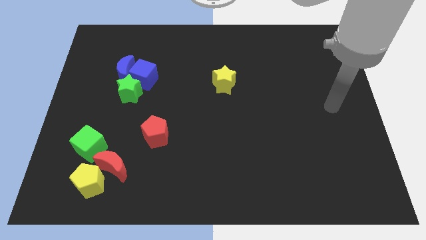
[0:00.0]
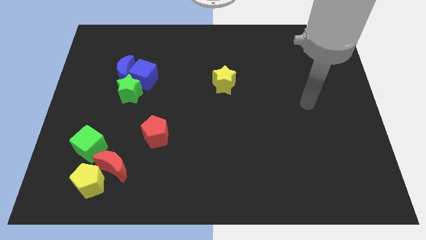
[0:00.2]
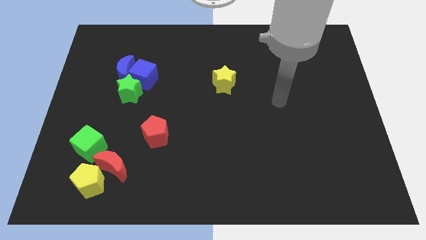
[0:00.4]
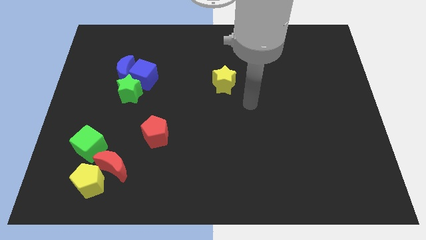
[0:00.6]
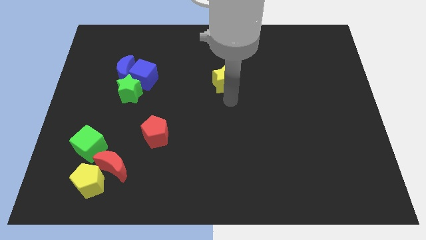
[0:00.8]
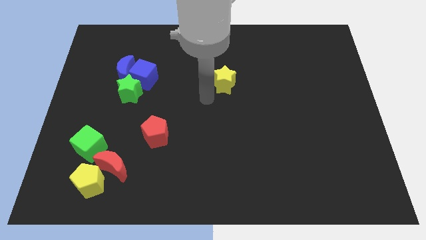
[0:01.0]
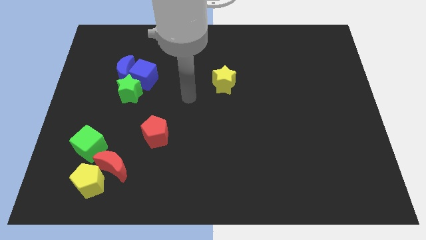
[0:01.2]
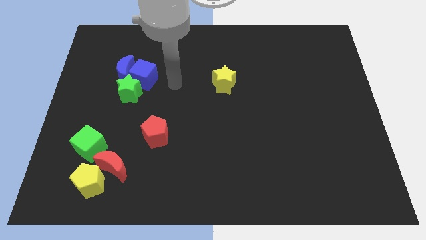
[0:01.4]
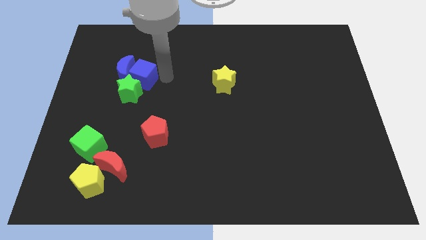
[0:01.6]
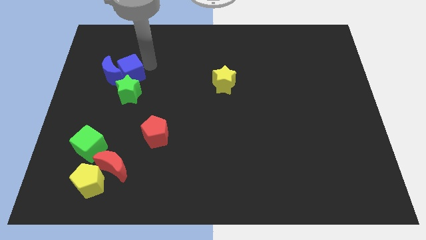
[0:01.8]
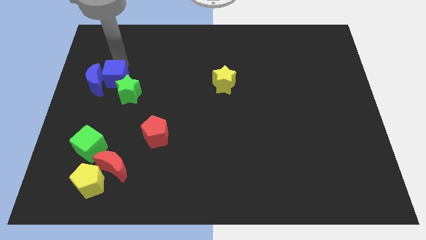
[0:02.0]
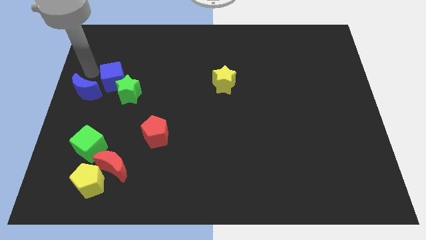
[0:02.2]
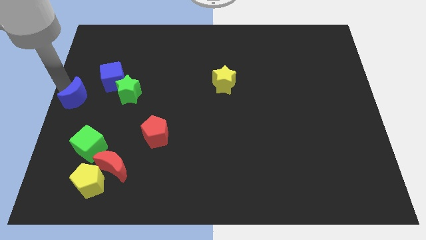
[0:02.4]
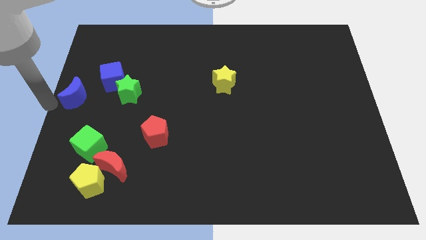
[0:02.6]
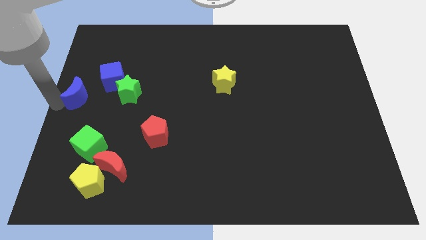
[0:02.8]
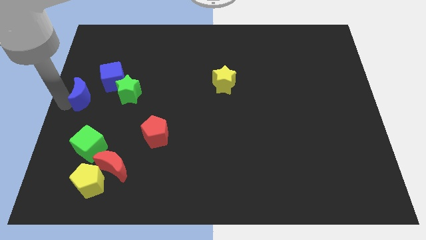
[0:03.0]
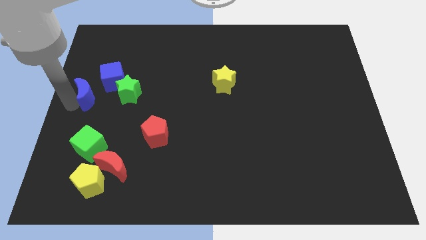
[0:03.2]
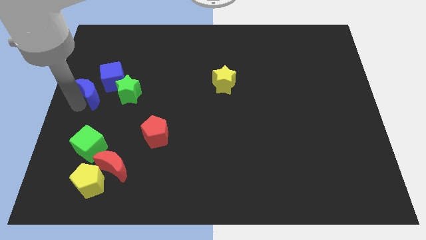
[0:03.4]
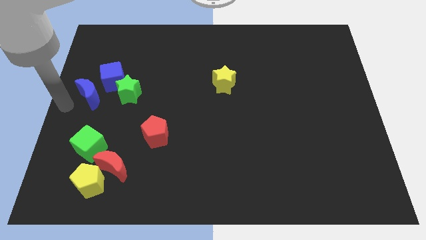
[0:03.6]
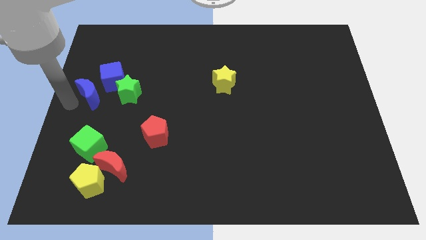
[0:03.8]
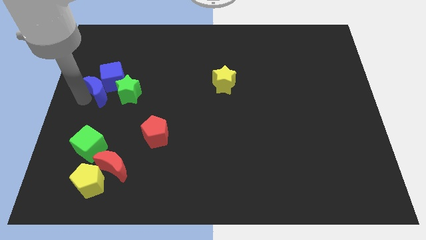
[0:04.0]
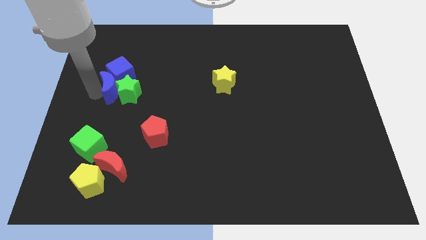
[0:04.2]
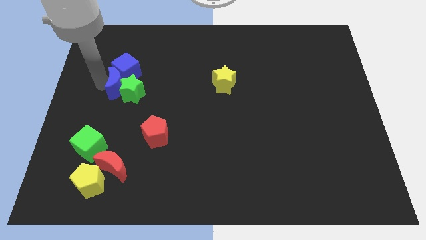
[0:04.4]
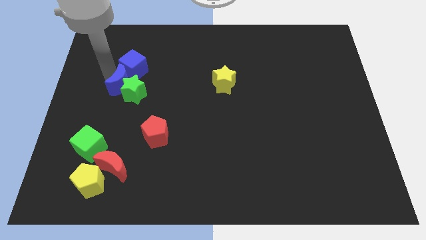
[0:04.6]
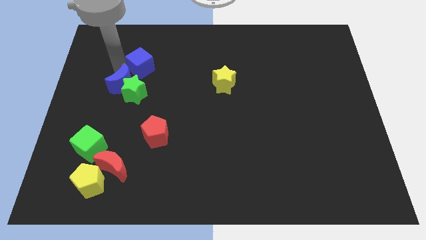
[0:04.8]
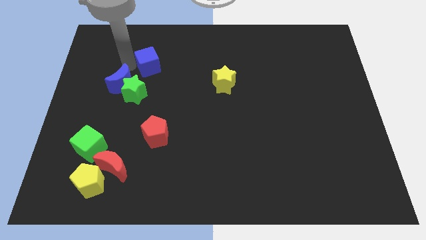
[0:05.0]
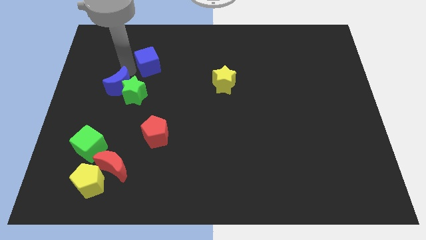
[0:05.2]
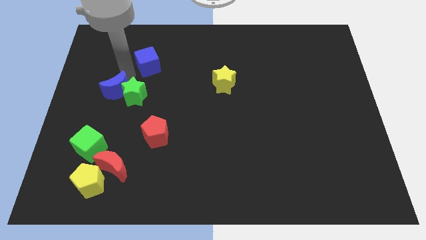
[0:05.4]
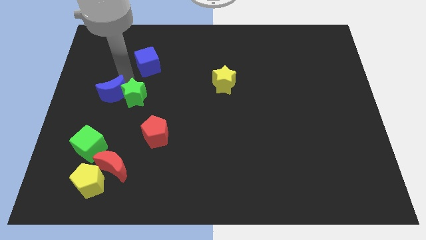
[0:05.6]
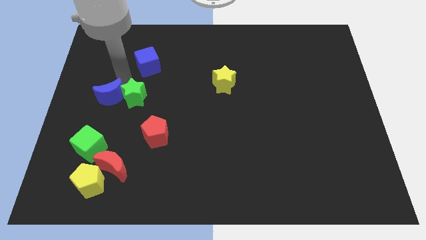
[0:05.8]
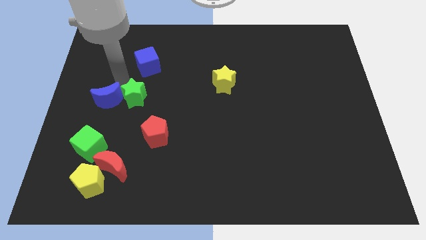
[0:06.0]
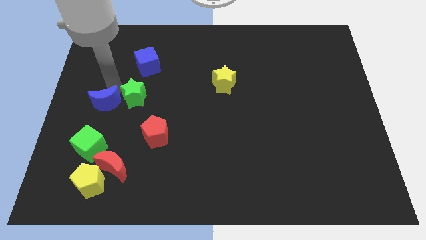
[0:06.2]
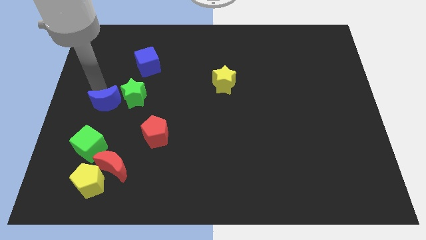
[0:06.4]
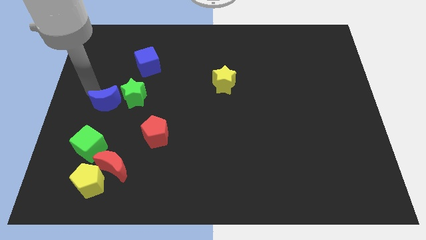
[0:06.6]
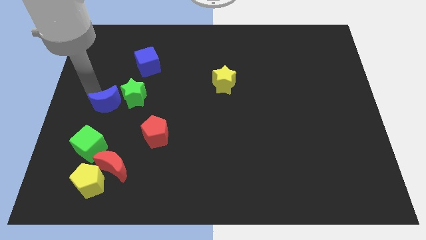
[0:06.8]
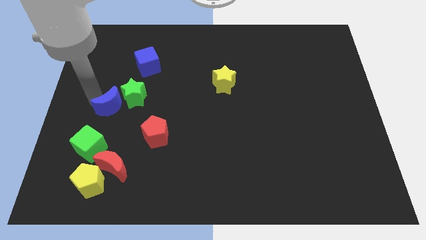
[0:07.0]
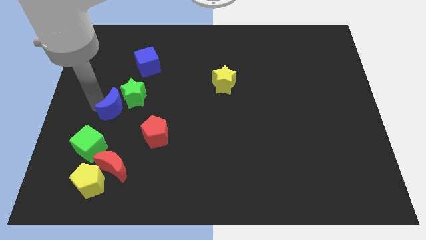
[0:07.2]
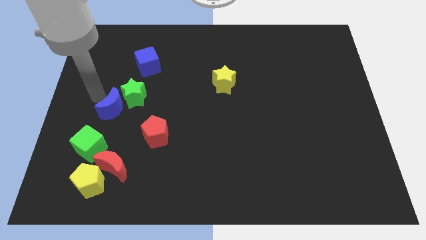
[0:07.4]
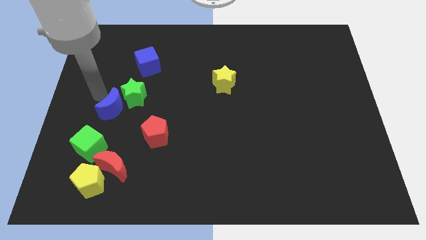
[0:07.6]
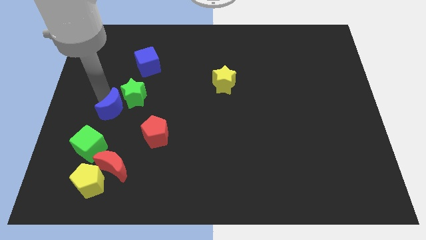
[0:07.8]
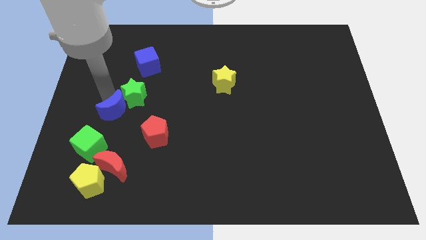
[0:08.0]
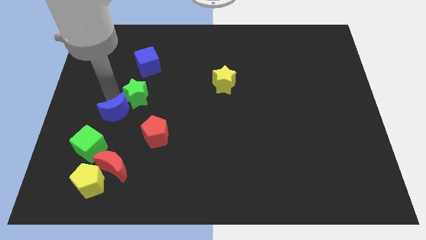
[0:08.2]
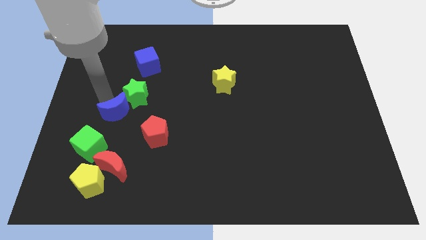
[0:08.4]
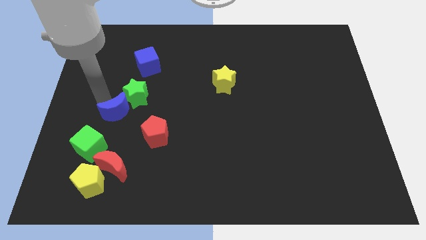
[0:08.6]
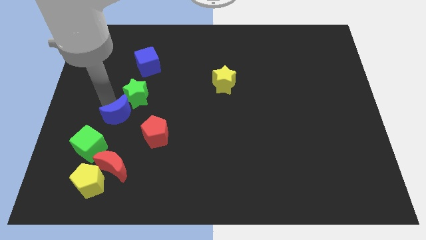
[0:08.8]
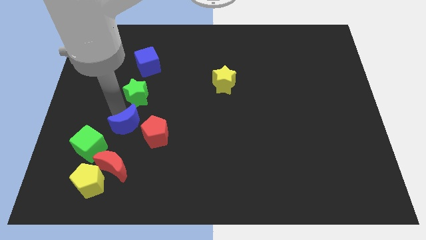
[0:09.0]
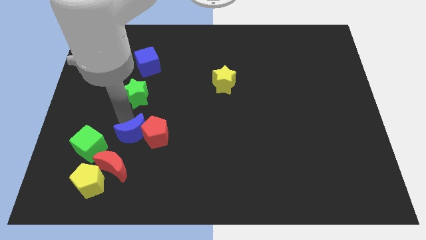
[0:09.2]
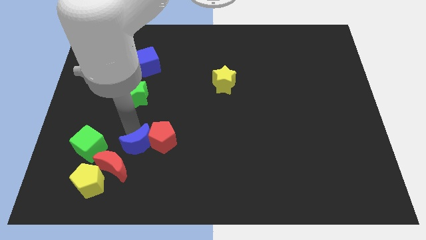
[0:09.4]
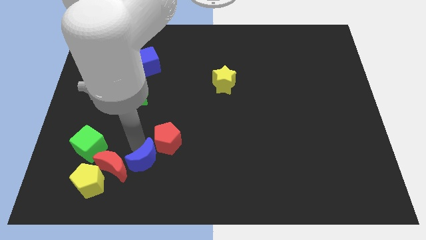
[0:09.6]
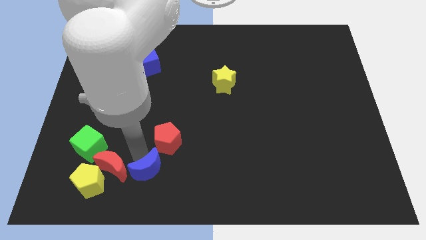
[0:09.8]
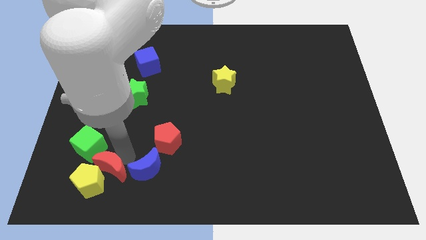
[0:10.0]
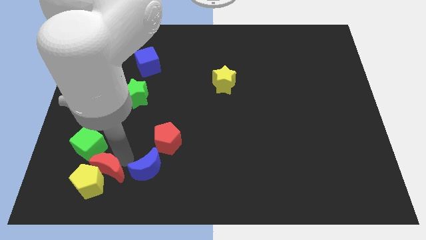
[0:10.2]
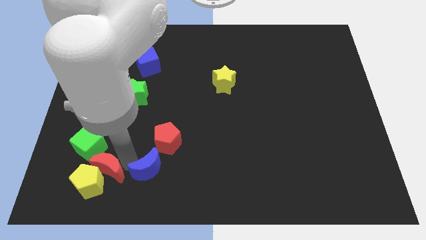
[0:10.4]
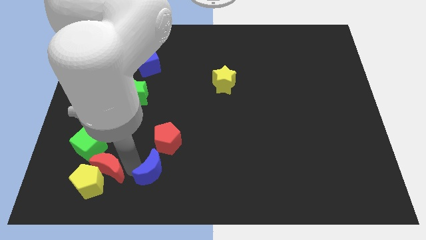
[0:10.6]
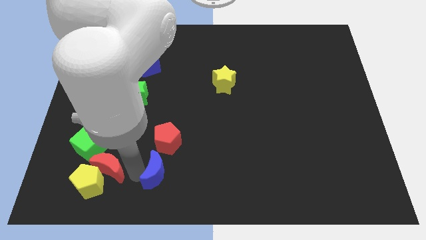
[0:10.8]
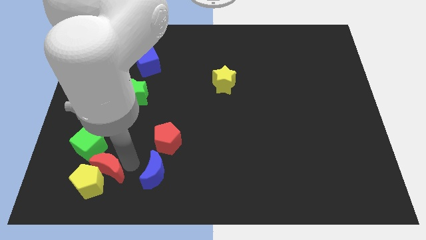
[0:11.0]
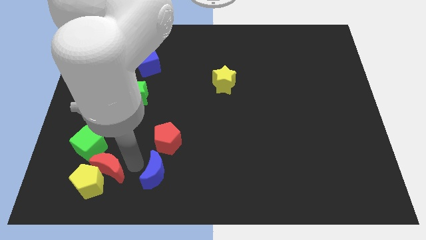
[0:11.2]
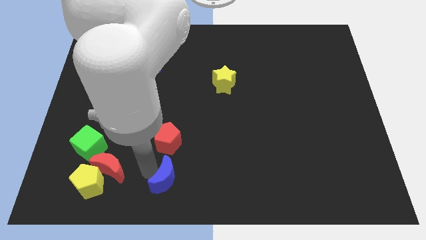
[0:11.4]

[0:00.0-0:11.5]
put the blue moon to the bottom

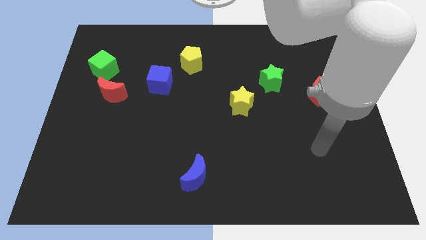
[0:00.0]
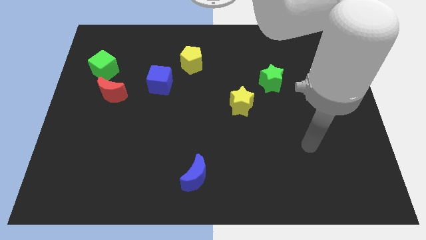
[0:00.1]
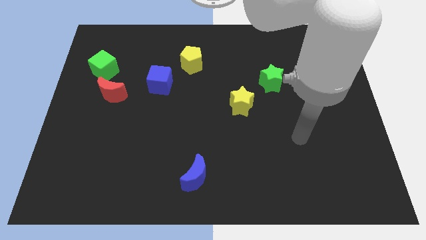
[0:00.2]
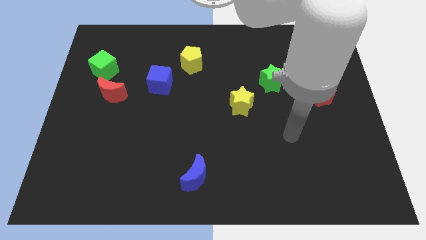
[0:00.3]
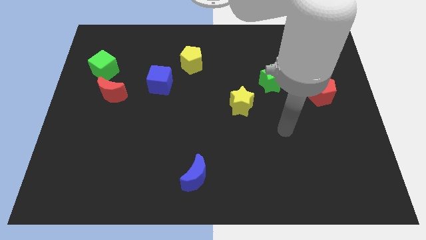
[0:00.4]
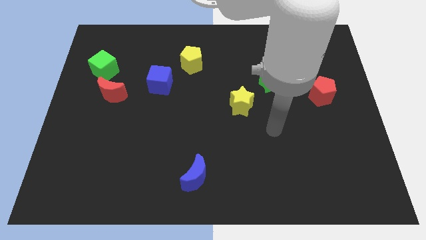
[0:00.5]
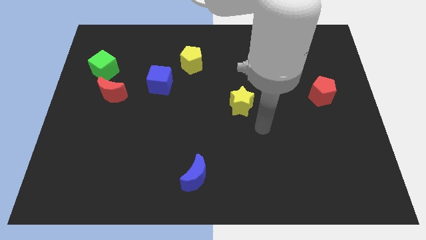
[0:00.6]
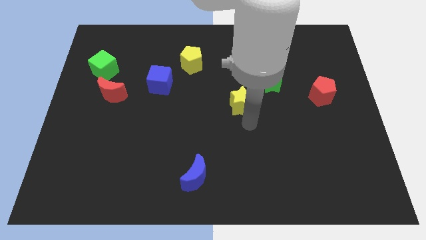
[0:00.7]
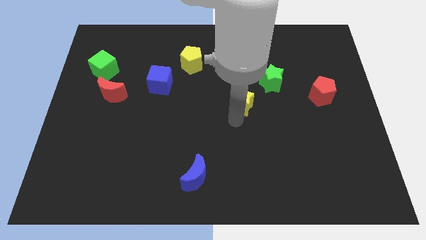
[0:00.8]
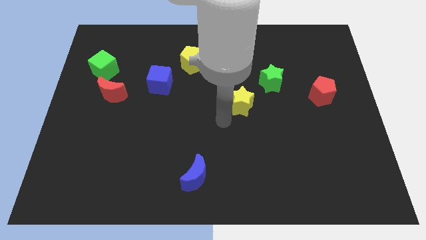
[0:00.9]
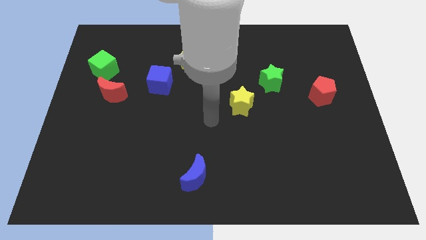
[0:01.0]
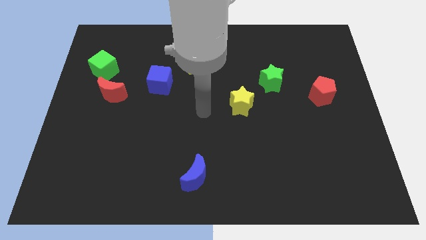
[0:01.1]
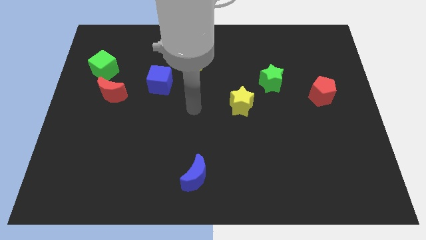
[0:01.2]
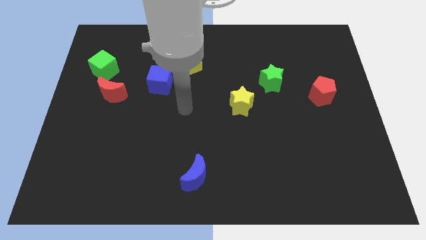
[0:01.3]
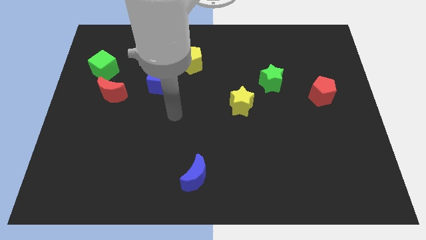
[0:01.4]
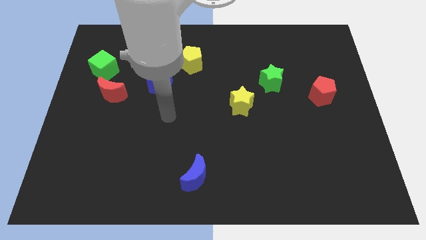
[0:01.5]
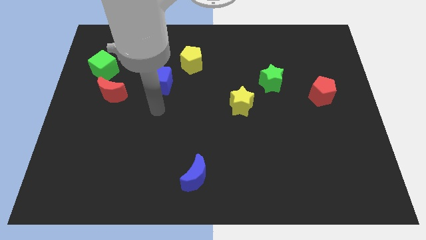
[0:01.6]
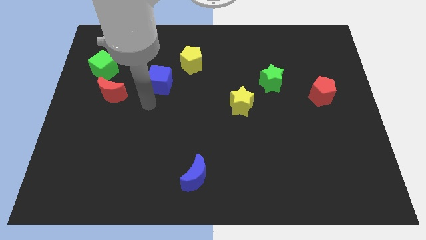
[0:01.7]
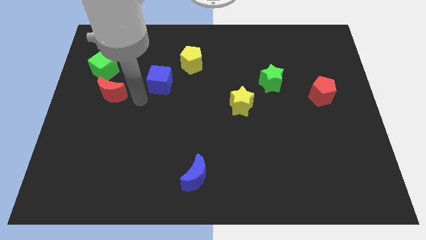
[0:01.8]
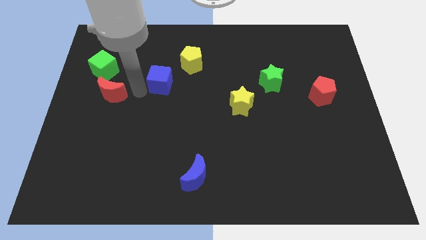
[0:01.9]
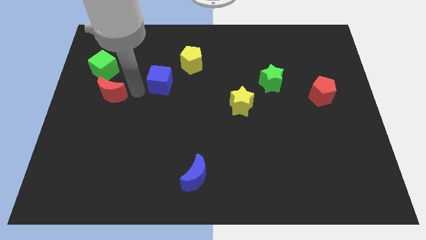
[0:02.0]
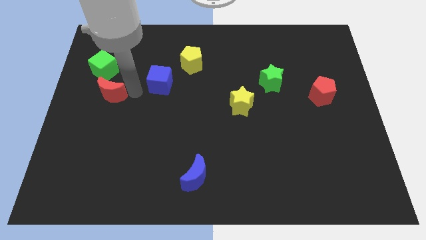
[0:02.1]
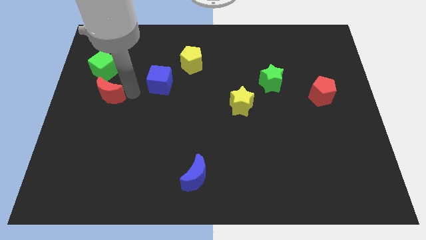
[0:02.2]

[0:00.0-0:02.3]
push the red moon to the left side

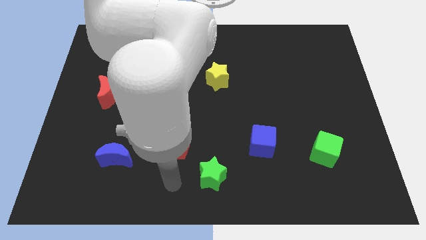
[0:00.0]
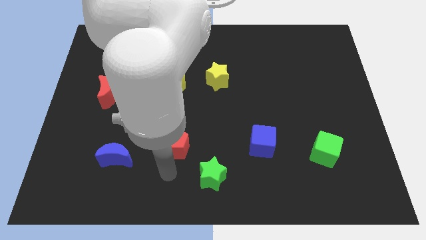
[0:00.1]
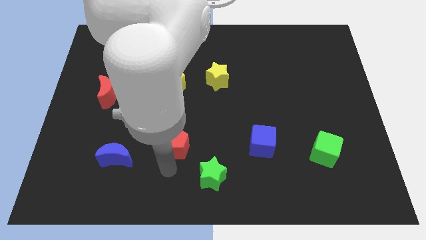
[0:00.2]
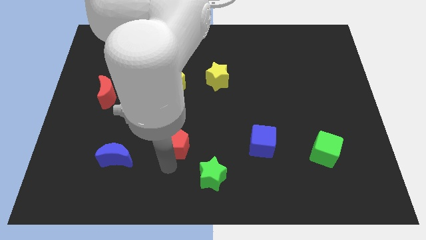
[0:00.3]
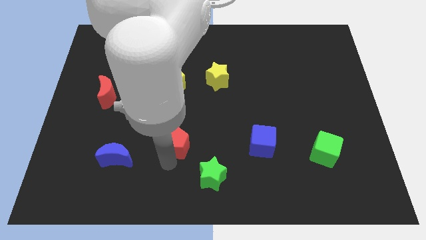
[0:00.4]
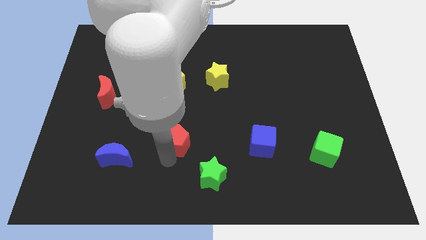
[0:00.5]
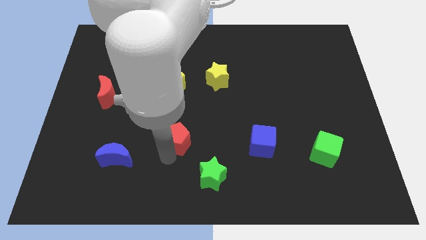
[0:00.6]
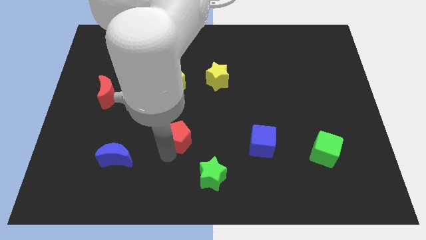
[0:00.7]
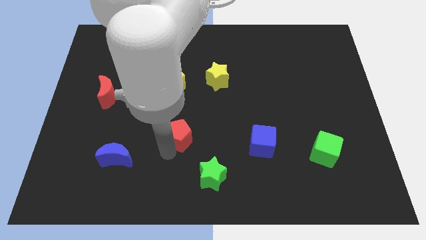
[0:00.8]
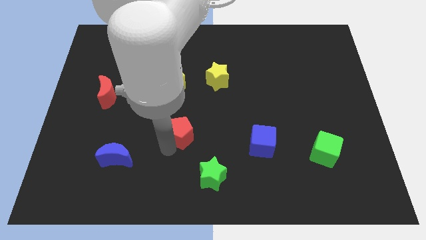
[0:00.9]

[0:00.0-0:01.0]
put the red pentagon to the center
